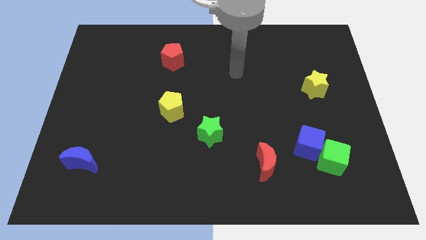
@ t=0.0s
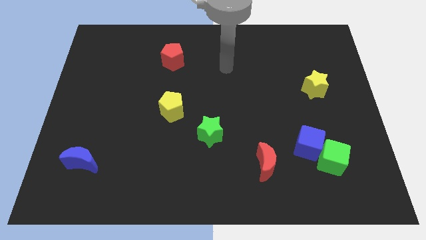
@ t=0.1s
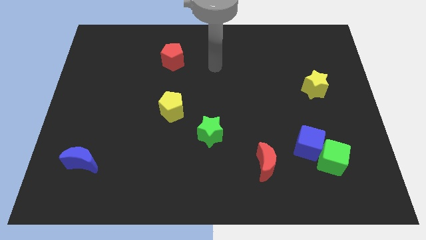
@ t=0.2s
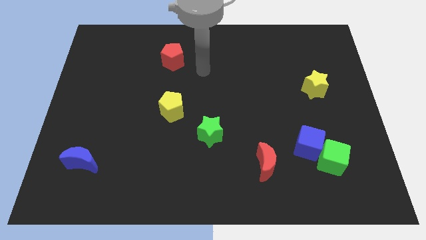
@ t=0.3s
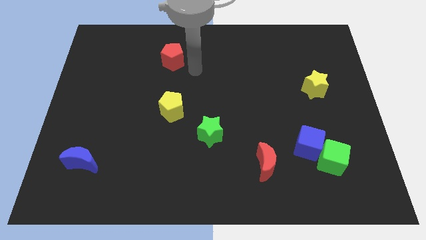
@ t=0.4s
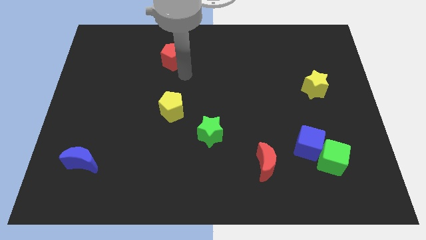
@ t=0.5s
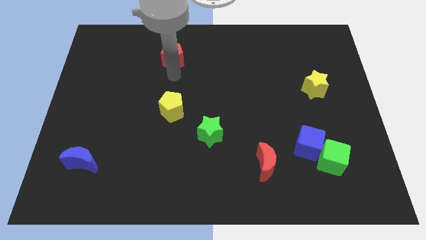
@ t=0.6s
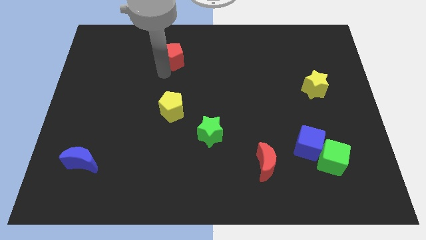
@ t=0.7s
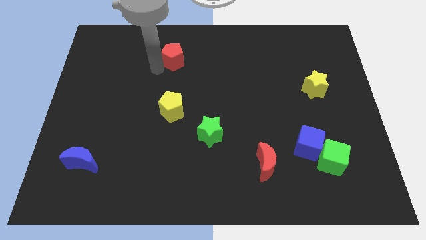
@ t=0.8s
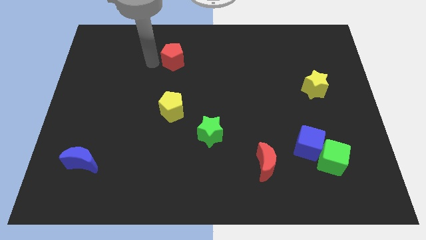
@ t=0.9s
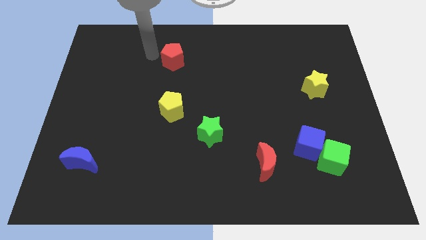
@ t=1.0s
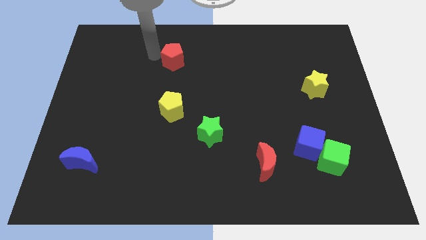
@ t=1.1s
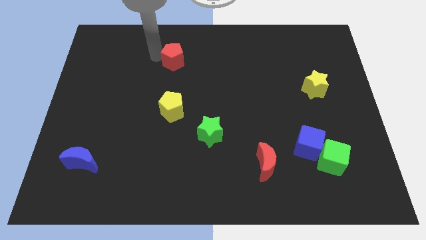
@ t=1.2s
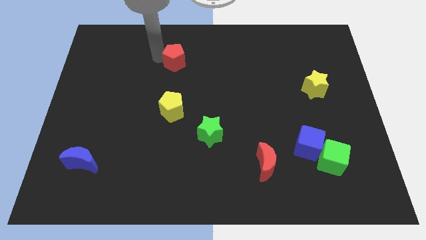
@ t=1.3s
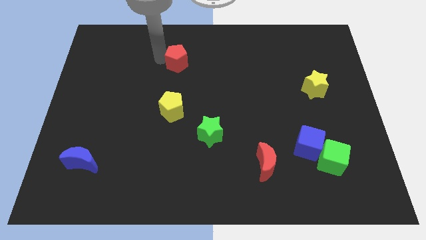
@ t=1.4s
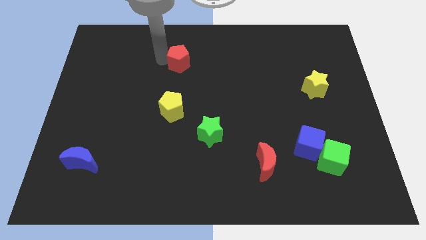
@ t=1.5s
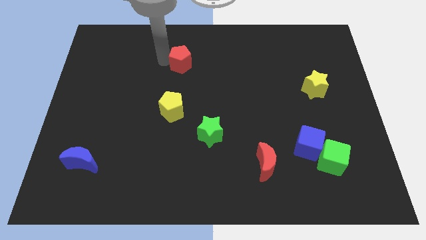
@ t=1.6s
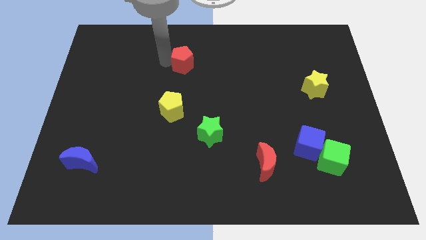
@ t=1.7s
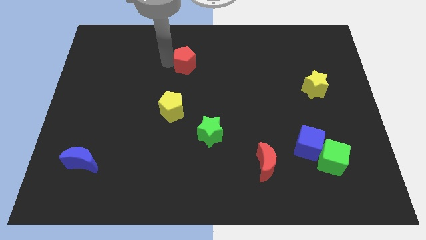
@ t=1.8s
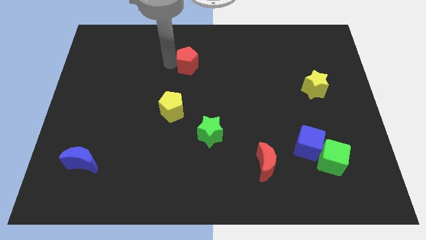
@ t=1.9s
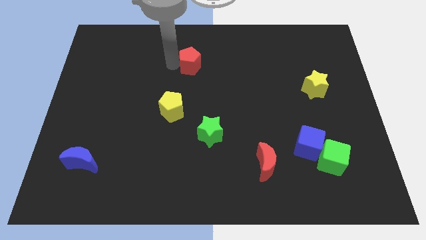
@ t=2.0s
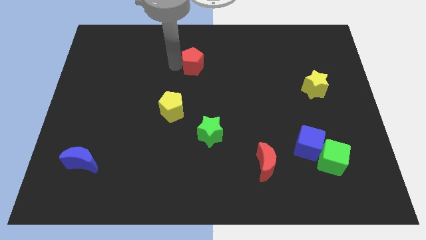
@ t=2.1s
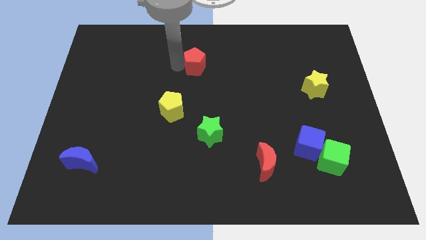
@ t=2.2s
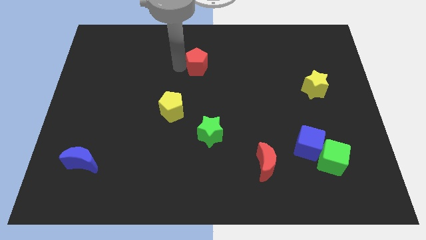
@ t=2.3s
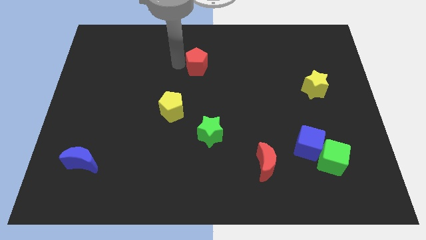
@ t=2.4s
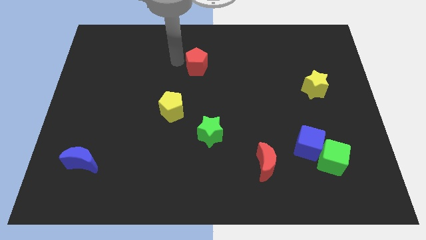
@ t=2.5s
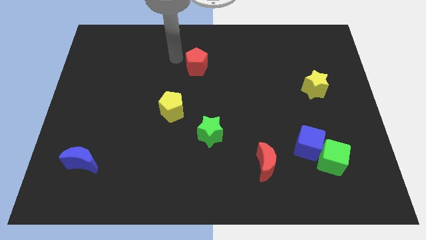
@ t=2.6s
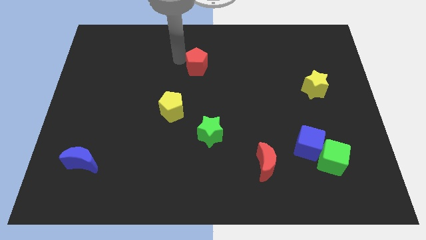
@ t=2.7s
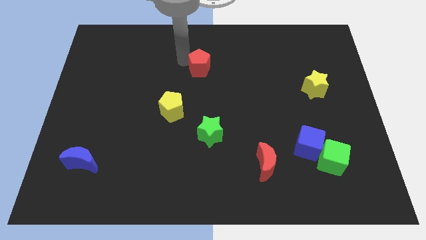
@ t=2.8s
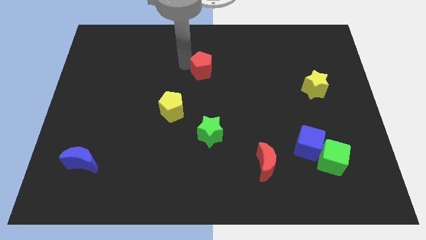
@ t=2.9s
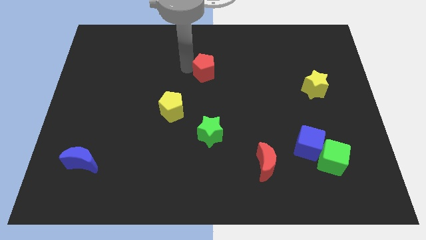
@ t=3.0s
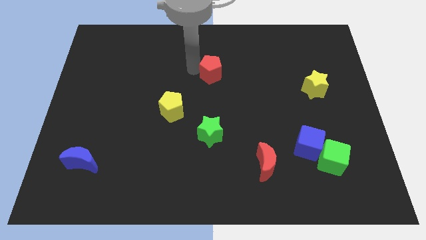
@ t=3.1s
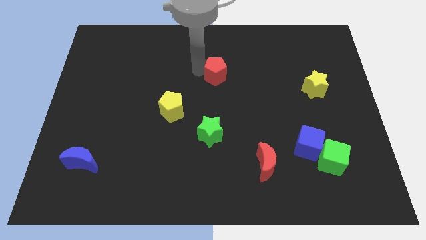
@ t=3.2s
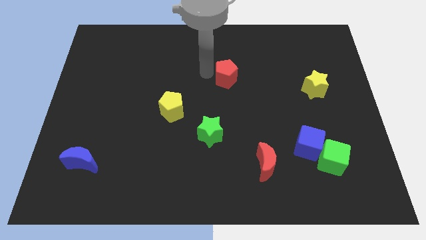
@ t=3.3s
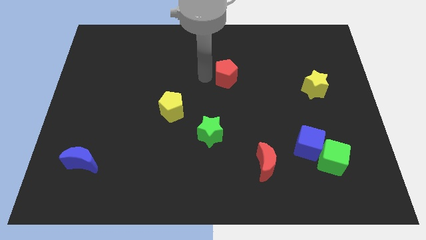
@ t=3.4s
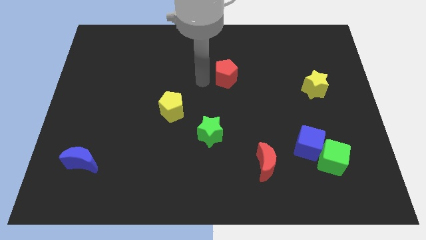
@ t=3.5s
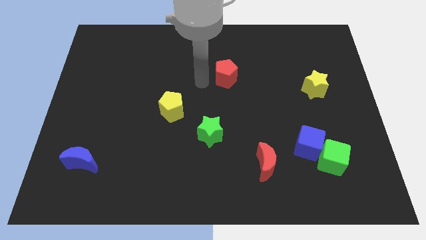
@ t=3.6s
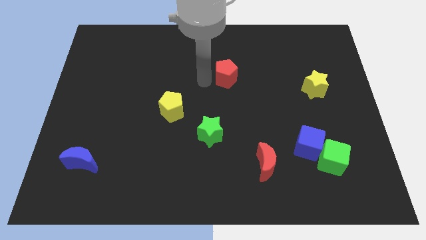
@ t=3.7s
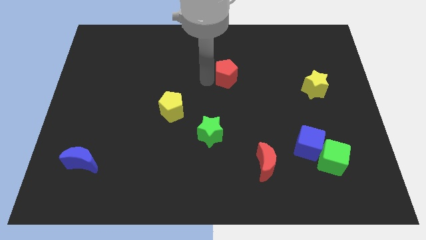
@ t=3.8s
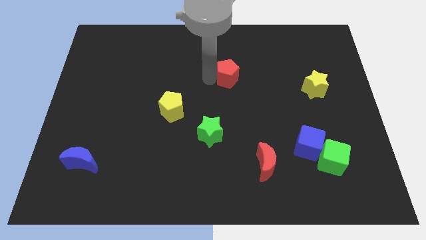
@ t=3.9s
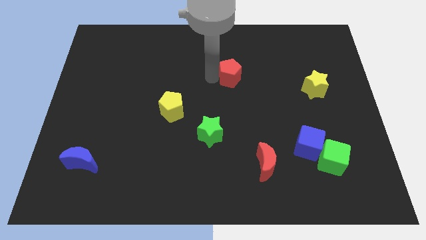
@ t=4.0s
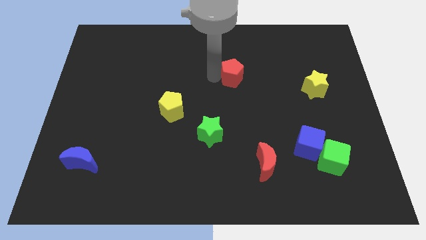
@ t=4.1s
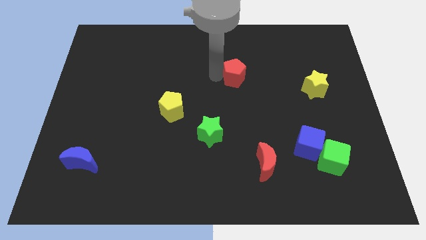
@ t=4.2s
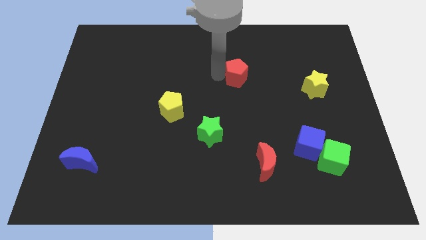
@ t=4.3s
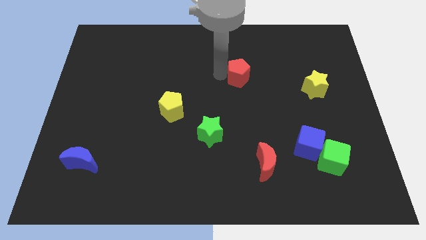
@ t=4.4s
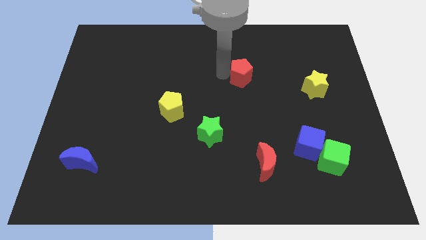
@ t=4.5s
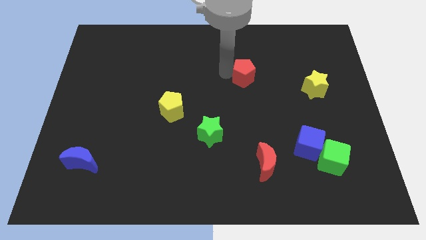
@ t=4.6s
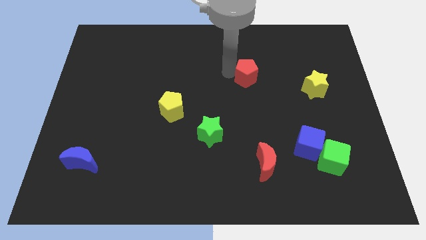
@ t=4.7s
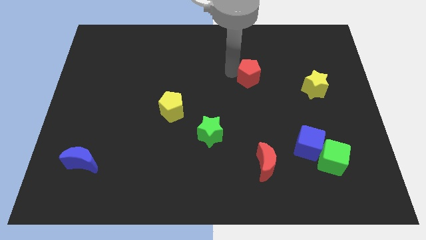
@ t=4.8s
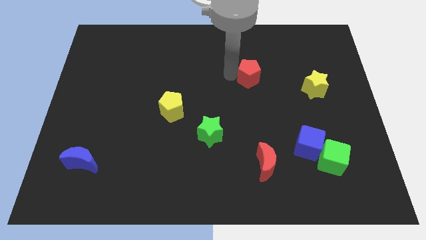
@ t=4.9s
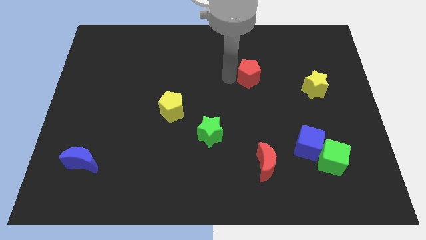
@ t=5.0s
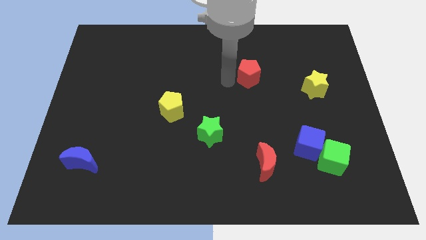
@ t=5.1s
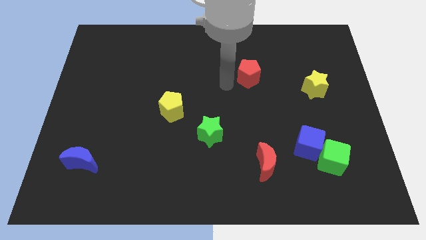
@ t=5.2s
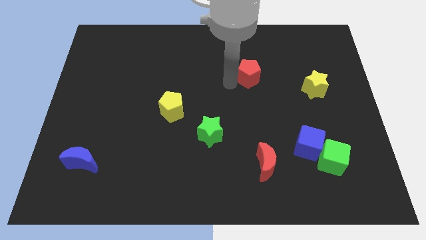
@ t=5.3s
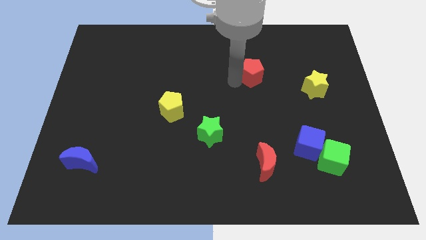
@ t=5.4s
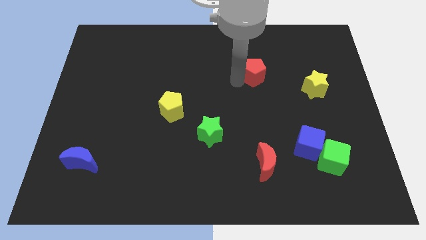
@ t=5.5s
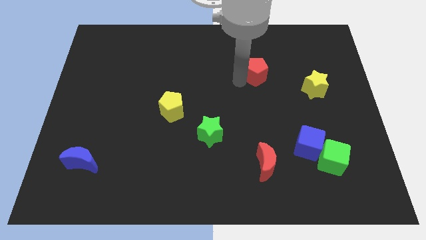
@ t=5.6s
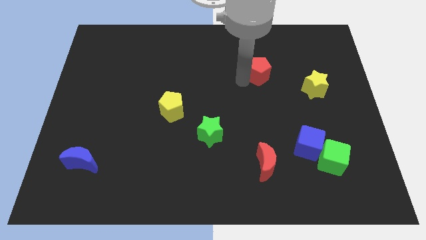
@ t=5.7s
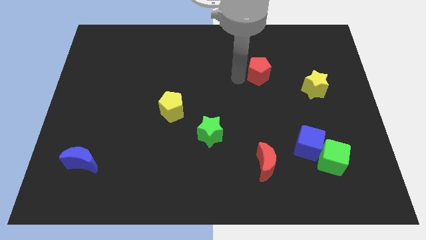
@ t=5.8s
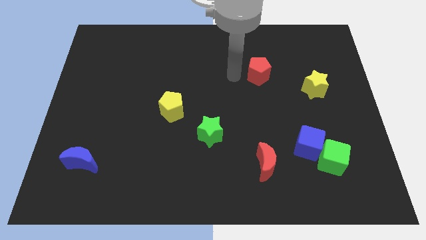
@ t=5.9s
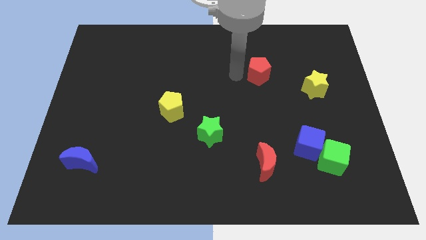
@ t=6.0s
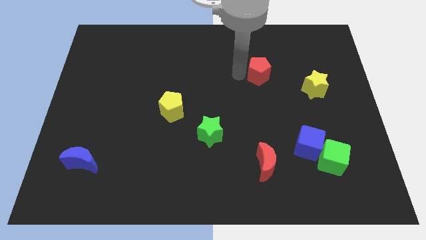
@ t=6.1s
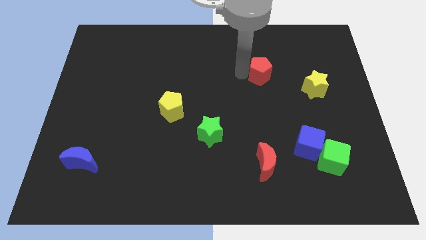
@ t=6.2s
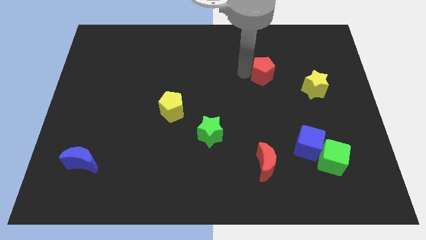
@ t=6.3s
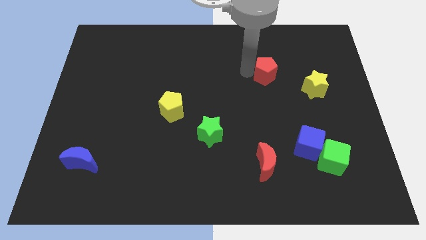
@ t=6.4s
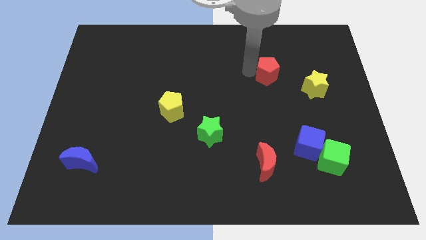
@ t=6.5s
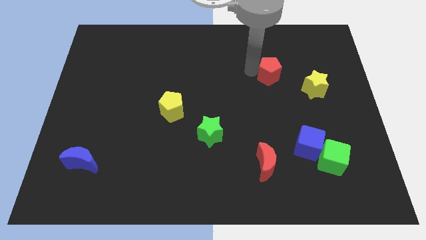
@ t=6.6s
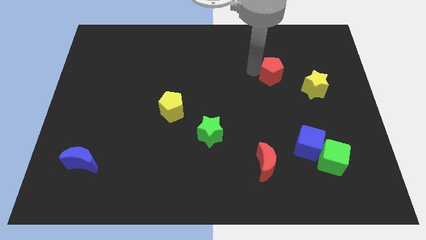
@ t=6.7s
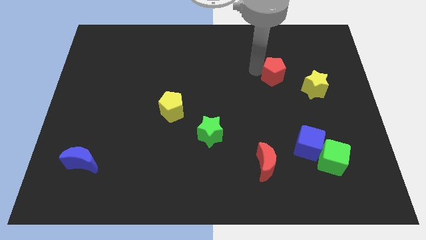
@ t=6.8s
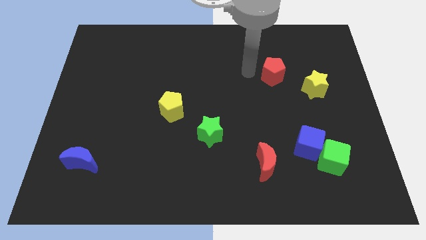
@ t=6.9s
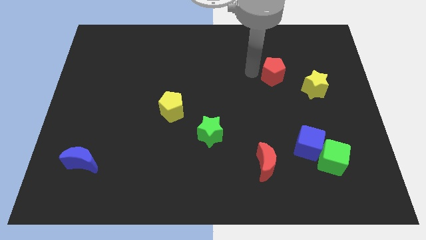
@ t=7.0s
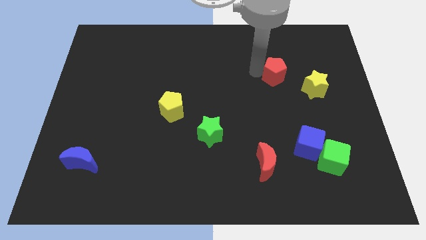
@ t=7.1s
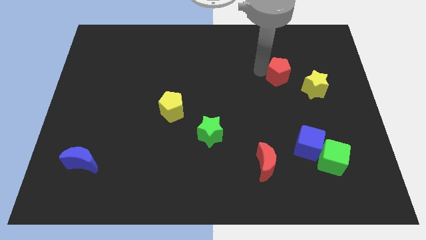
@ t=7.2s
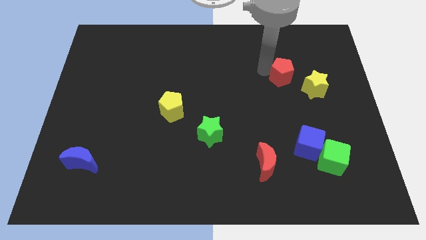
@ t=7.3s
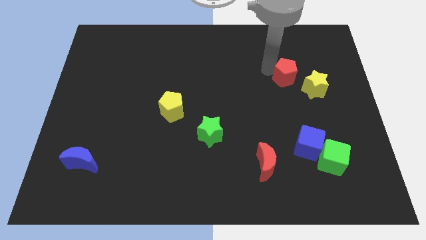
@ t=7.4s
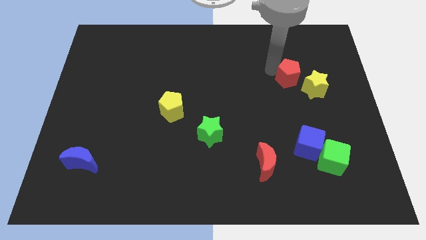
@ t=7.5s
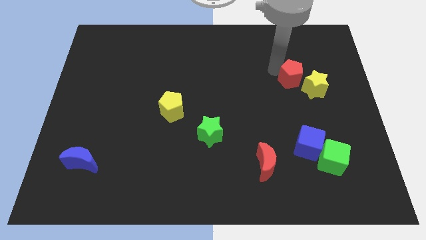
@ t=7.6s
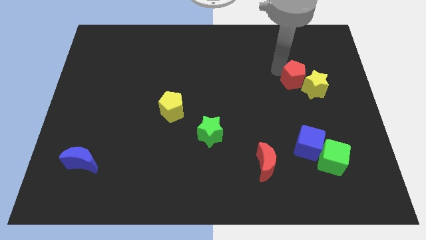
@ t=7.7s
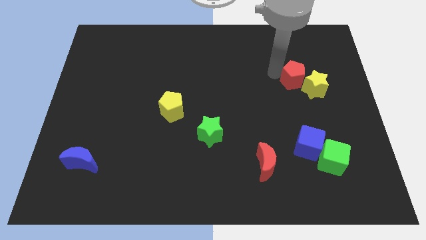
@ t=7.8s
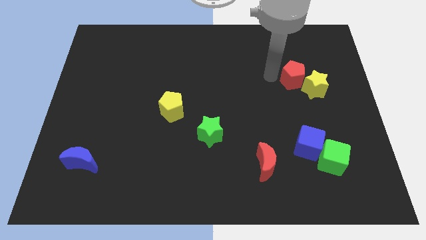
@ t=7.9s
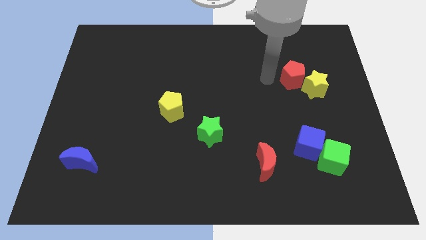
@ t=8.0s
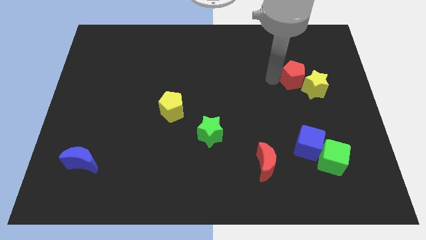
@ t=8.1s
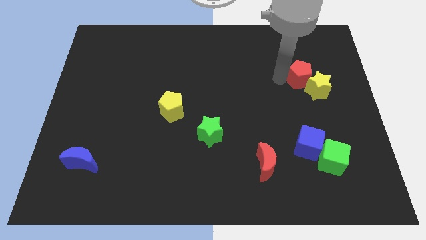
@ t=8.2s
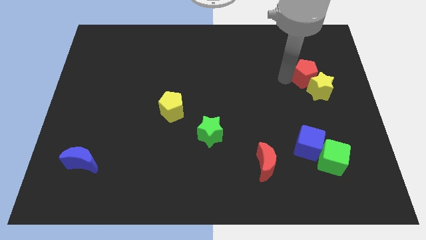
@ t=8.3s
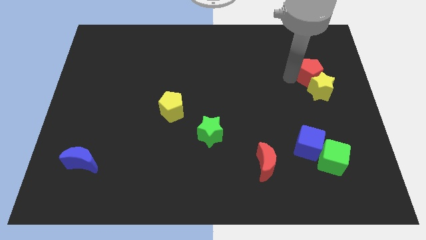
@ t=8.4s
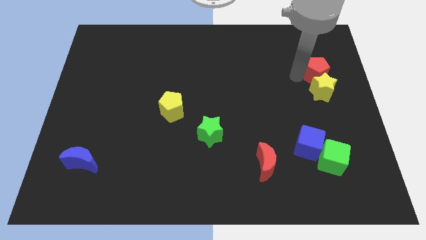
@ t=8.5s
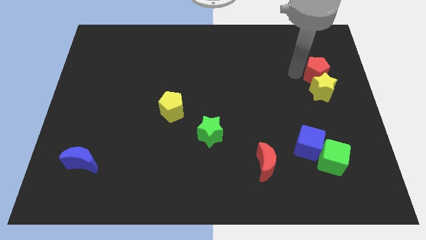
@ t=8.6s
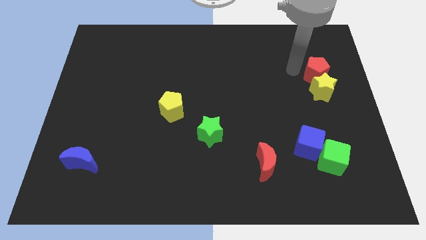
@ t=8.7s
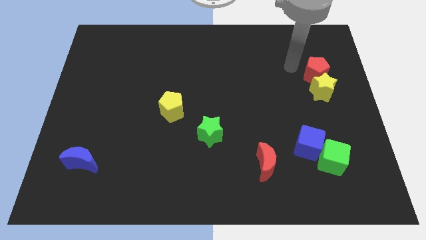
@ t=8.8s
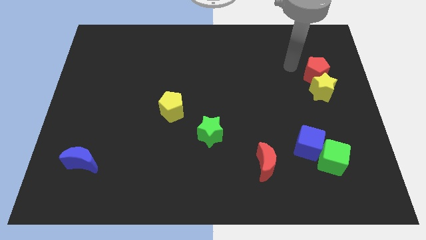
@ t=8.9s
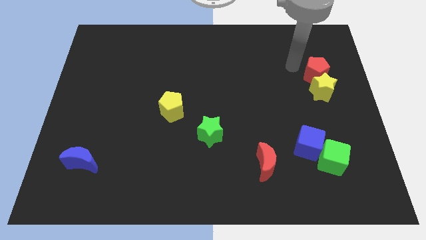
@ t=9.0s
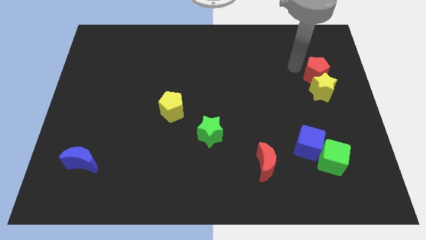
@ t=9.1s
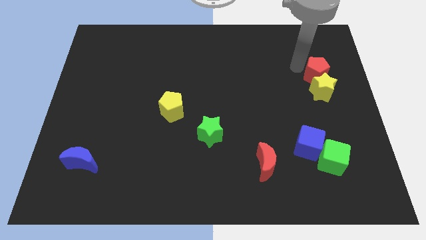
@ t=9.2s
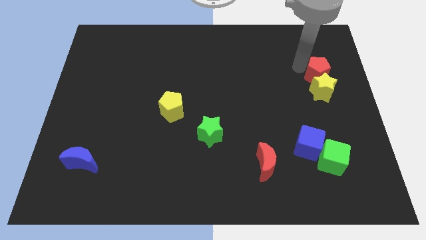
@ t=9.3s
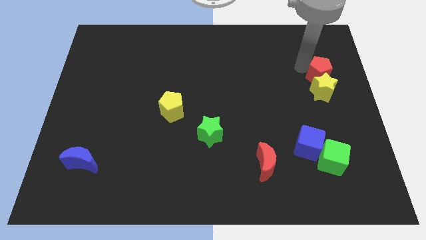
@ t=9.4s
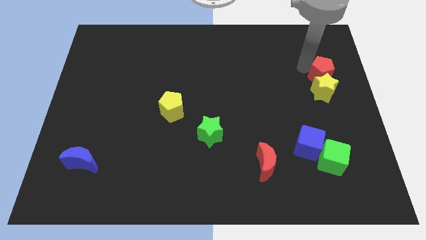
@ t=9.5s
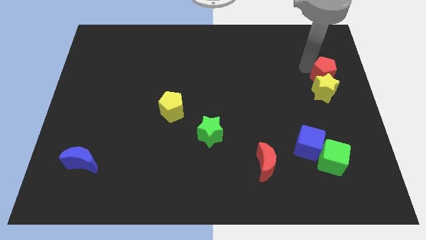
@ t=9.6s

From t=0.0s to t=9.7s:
slide the red pentagon to the right side of the board
